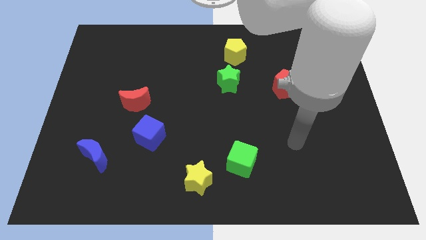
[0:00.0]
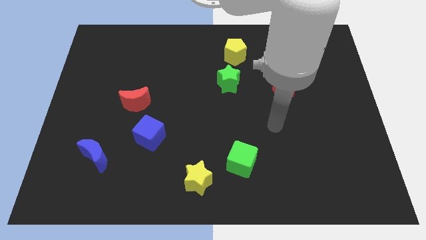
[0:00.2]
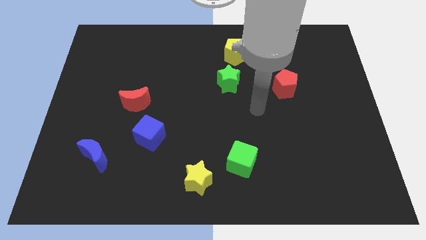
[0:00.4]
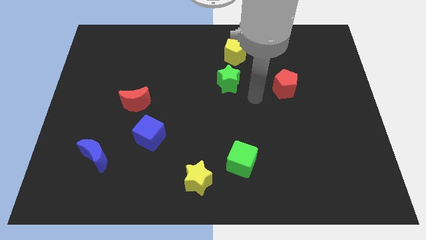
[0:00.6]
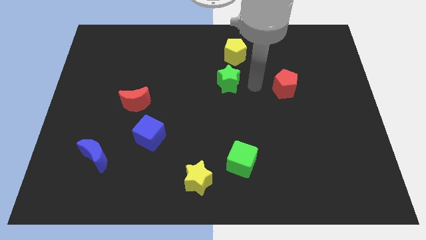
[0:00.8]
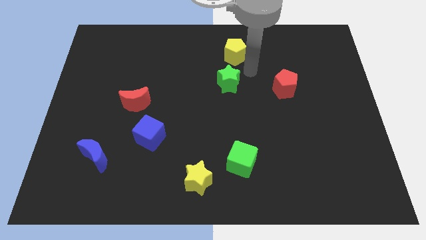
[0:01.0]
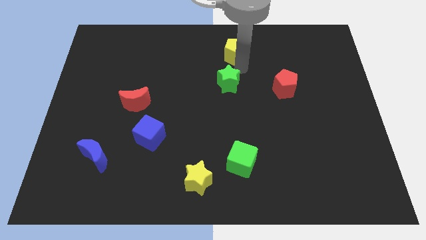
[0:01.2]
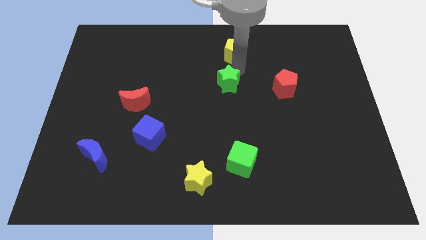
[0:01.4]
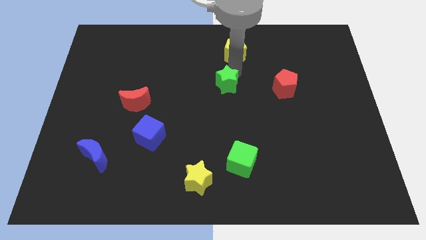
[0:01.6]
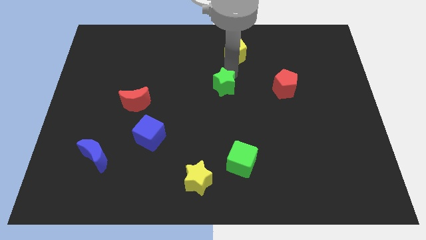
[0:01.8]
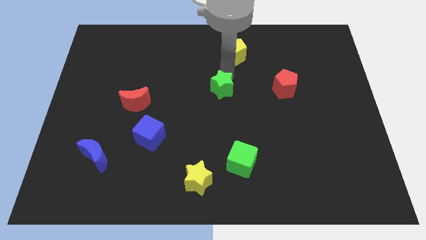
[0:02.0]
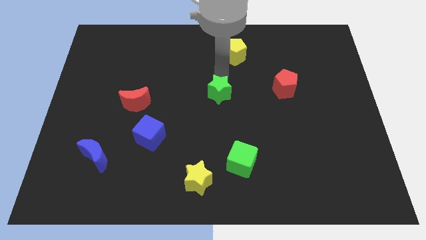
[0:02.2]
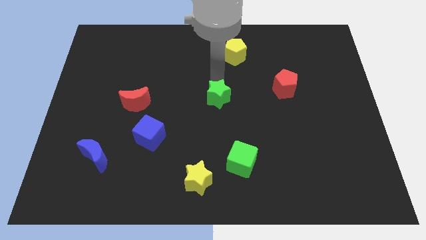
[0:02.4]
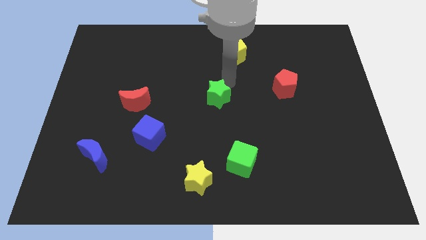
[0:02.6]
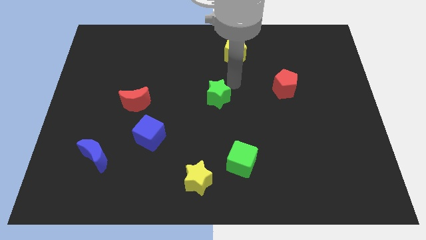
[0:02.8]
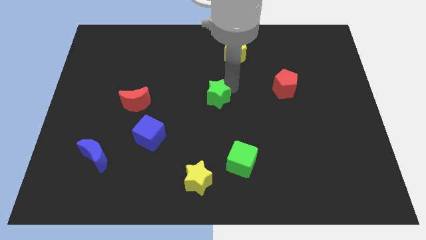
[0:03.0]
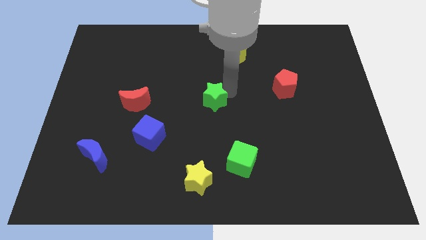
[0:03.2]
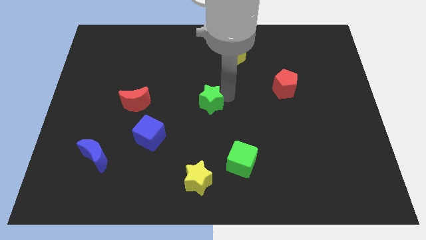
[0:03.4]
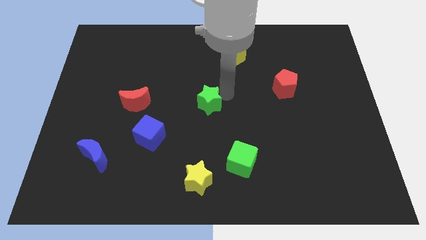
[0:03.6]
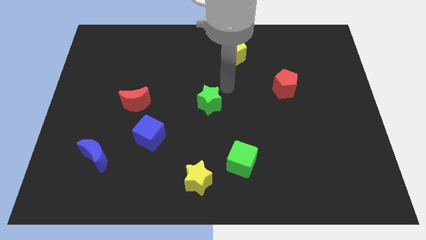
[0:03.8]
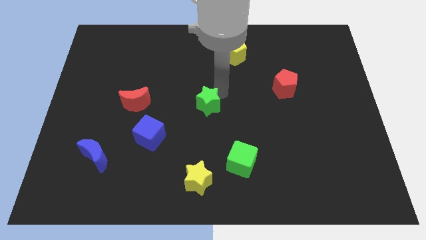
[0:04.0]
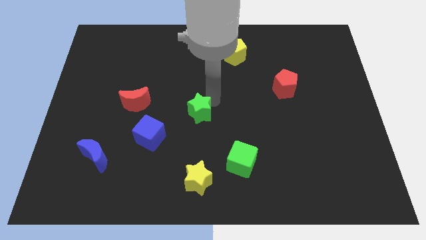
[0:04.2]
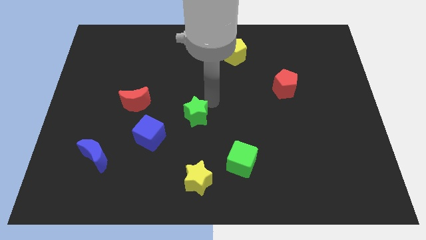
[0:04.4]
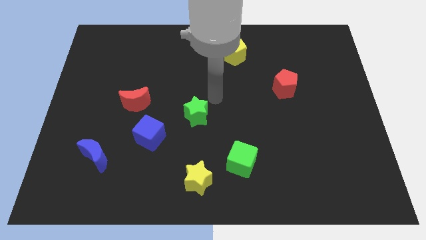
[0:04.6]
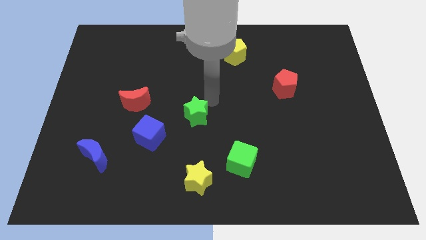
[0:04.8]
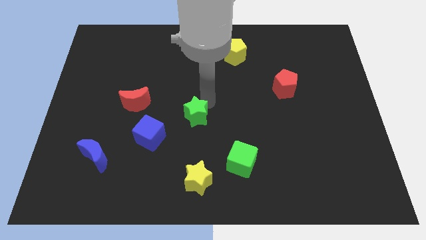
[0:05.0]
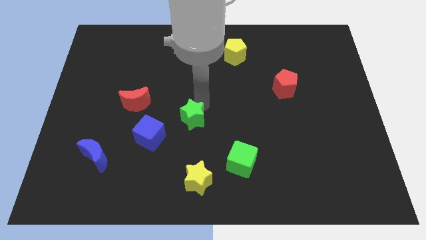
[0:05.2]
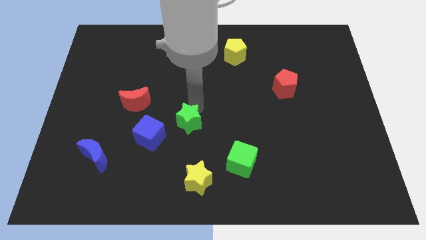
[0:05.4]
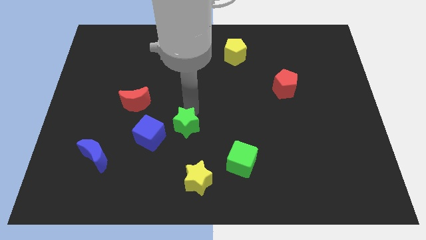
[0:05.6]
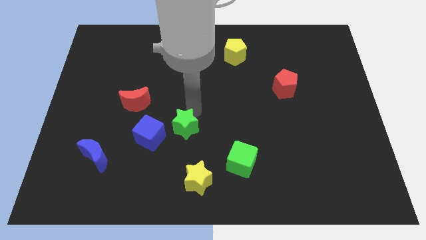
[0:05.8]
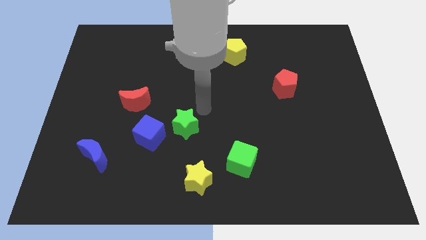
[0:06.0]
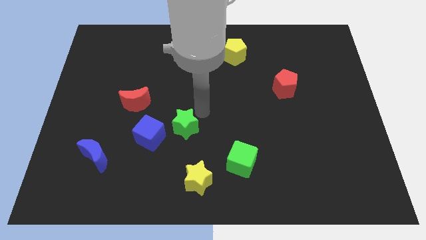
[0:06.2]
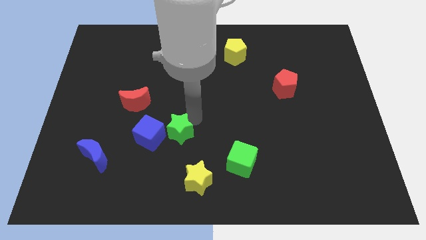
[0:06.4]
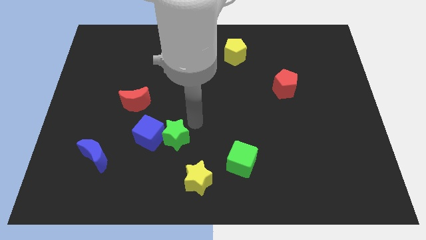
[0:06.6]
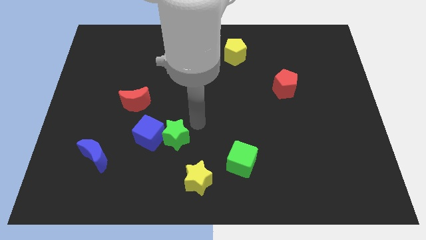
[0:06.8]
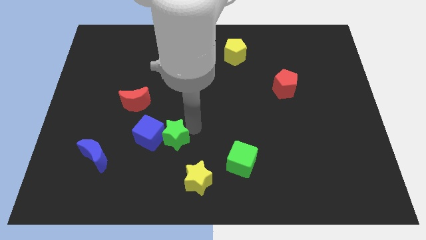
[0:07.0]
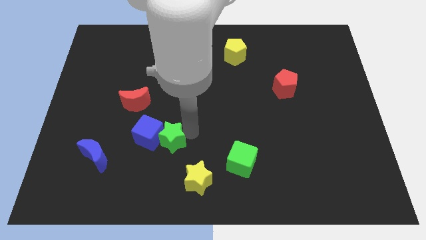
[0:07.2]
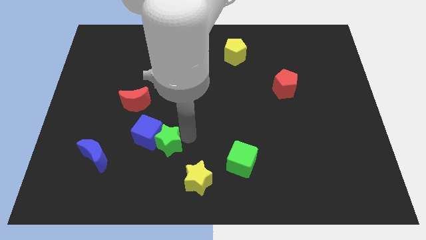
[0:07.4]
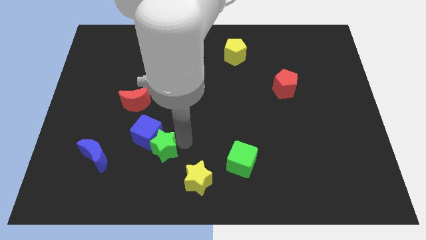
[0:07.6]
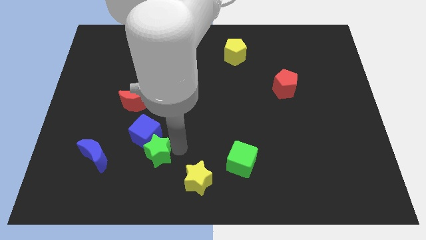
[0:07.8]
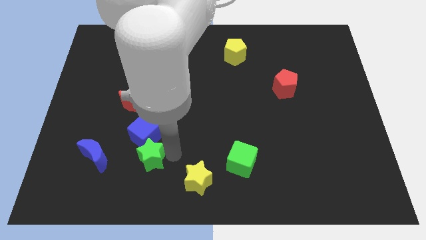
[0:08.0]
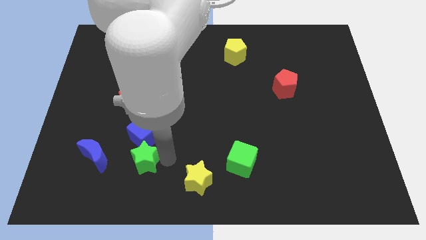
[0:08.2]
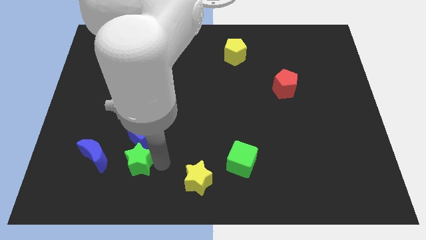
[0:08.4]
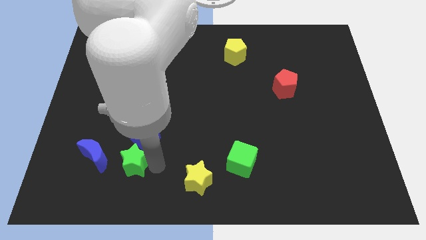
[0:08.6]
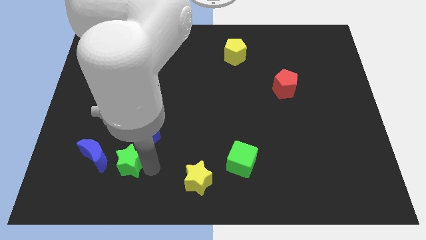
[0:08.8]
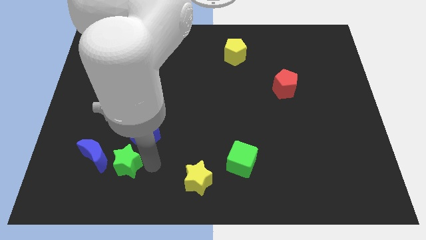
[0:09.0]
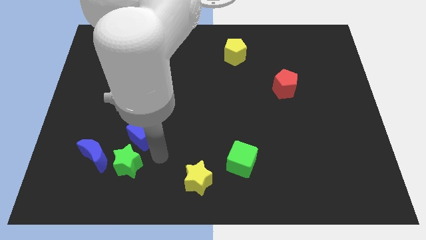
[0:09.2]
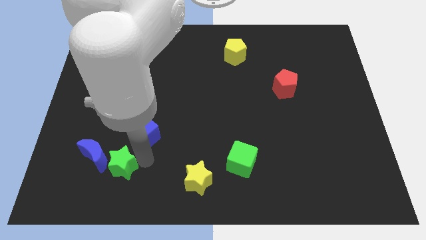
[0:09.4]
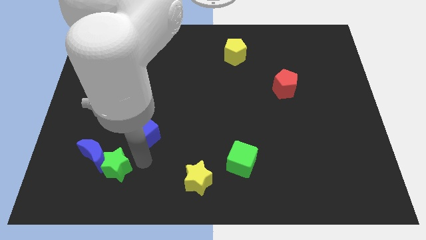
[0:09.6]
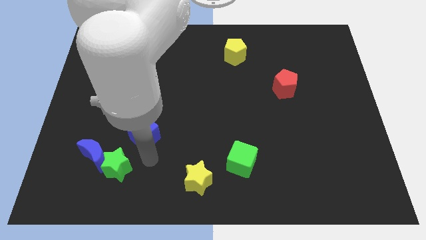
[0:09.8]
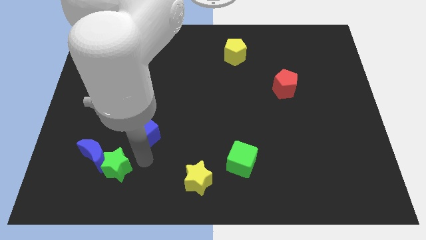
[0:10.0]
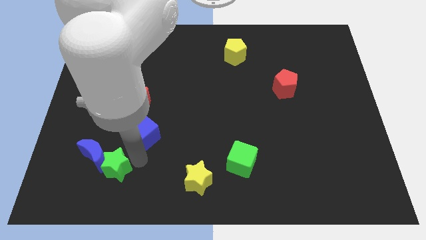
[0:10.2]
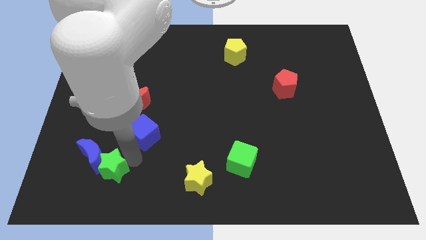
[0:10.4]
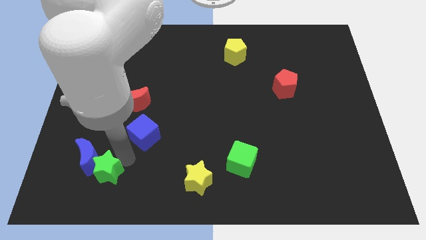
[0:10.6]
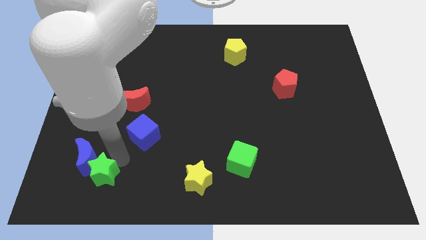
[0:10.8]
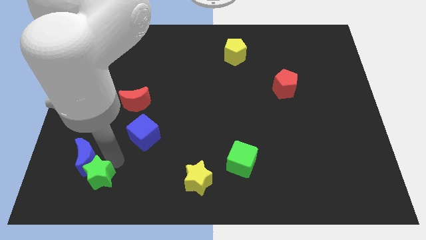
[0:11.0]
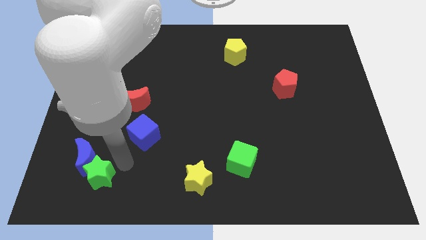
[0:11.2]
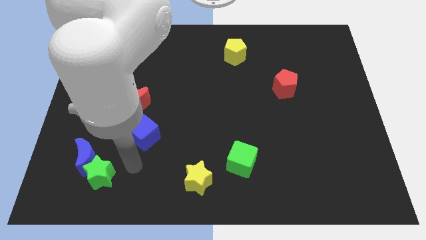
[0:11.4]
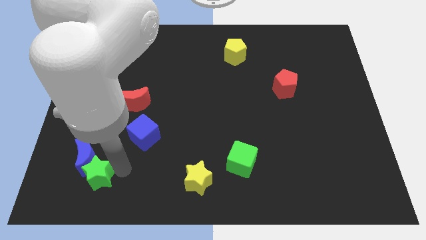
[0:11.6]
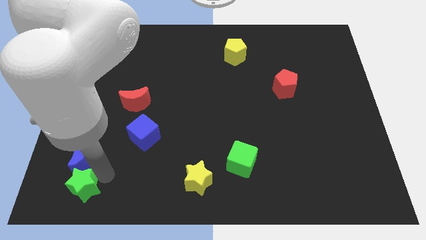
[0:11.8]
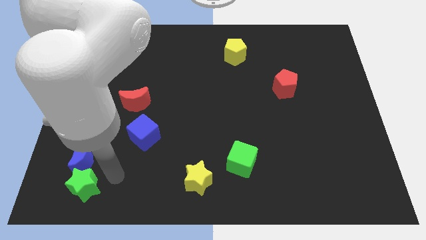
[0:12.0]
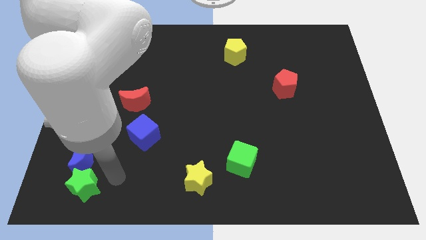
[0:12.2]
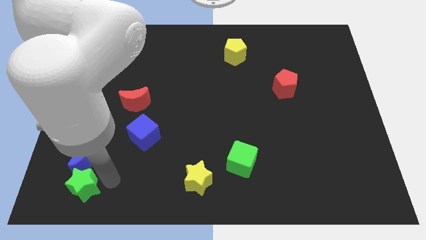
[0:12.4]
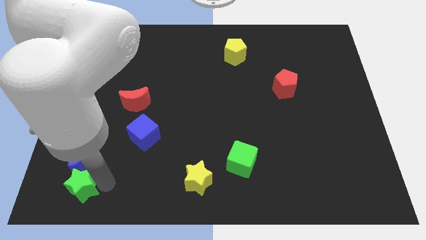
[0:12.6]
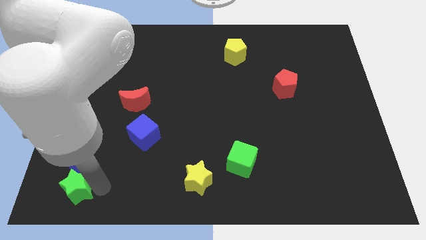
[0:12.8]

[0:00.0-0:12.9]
slide the green star to the lower left corner
